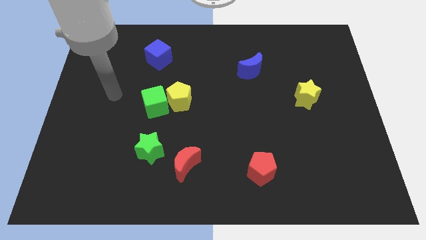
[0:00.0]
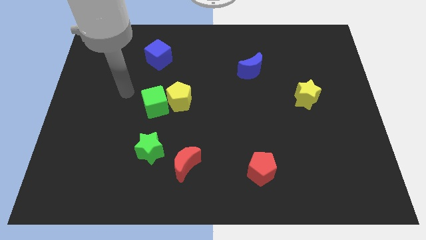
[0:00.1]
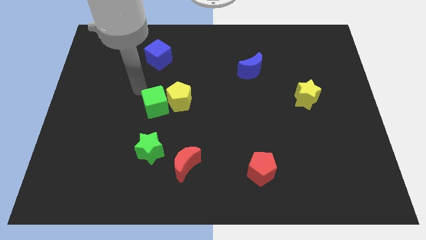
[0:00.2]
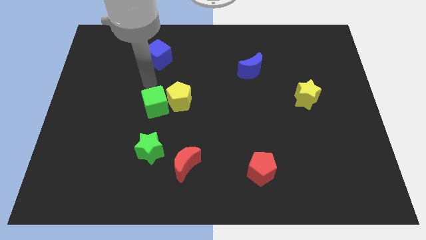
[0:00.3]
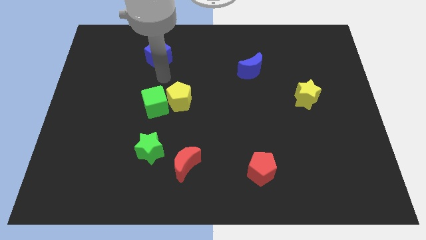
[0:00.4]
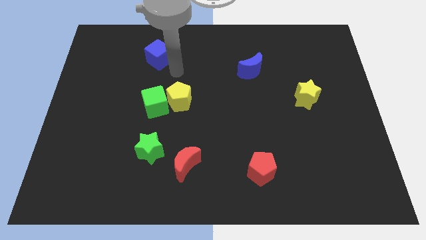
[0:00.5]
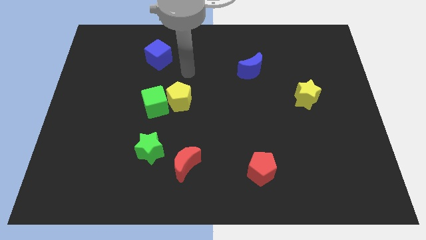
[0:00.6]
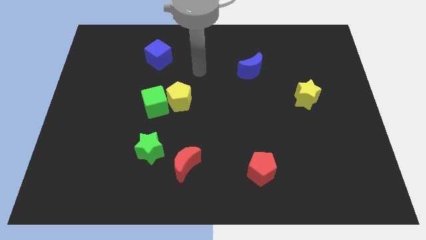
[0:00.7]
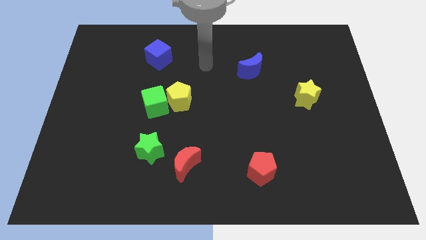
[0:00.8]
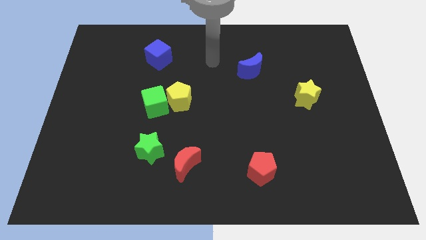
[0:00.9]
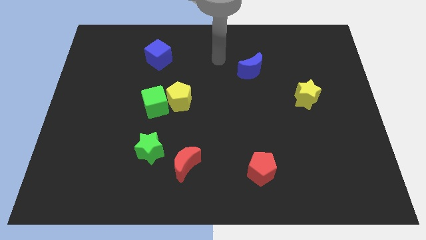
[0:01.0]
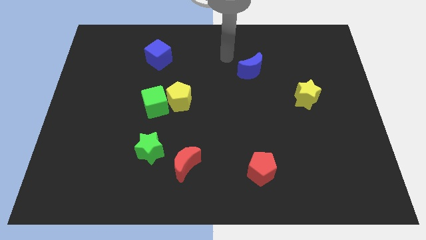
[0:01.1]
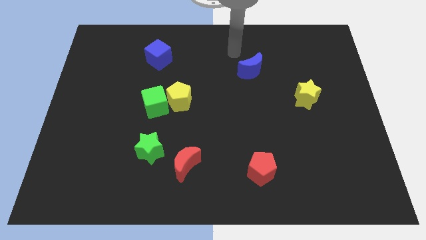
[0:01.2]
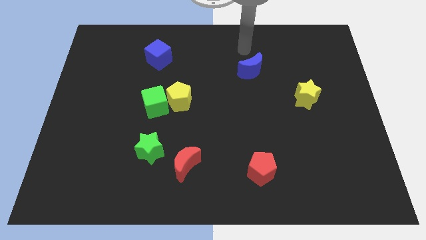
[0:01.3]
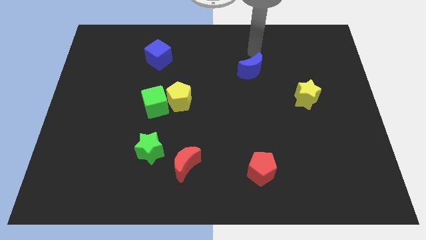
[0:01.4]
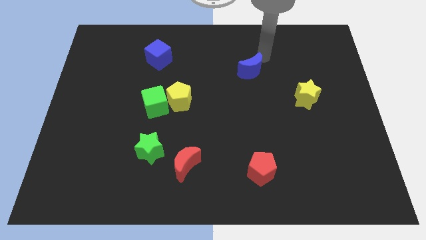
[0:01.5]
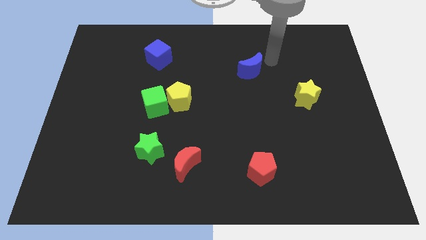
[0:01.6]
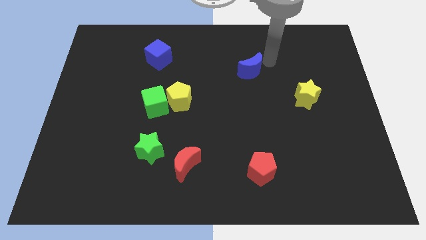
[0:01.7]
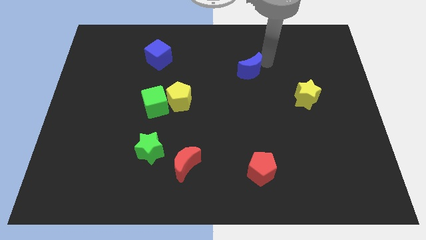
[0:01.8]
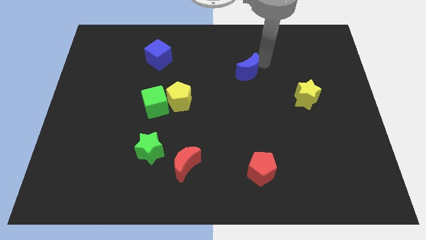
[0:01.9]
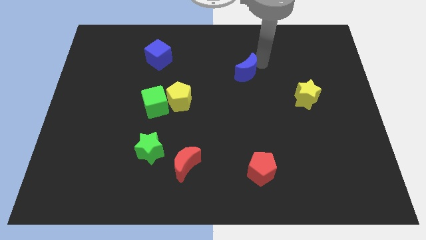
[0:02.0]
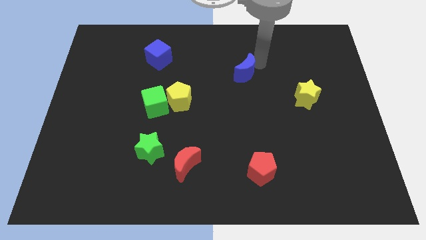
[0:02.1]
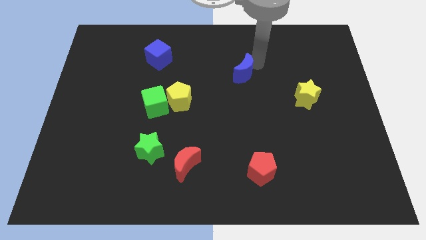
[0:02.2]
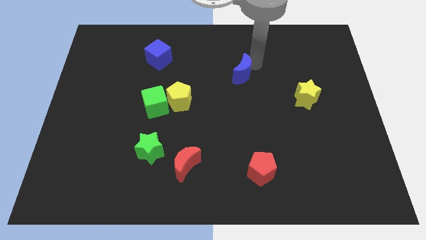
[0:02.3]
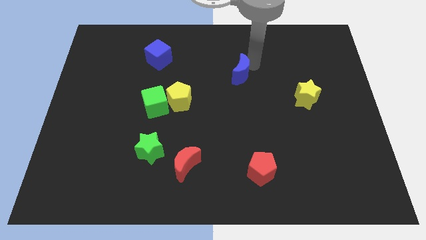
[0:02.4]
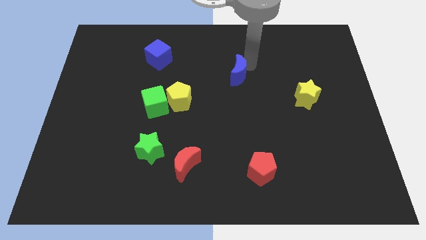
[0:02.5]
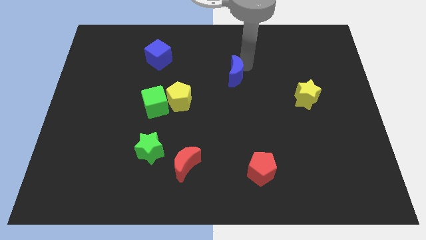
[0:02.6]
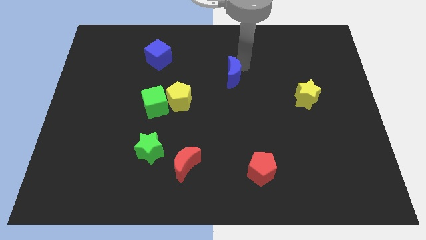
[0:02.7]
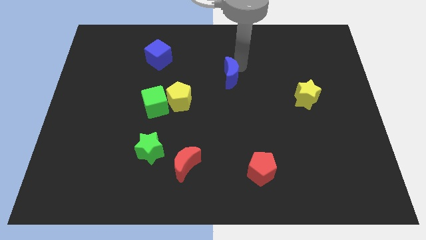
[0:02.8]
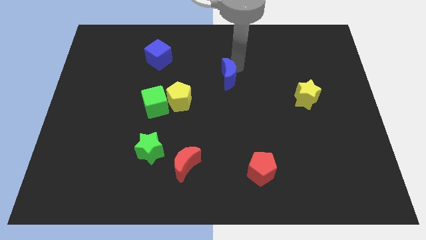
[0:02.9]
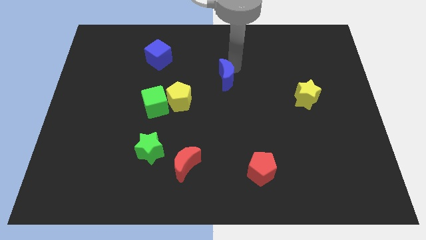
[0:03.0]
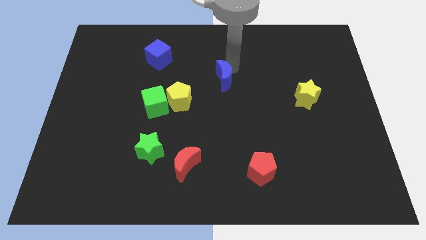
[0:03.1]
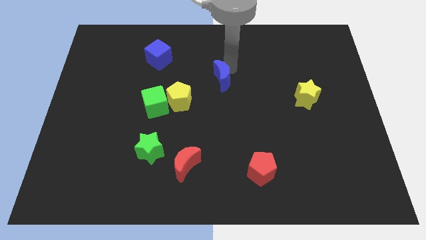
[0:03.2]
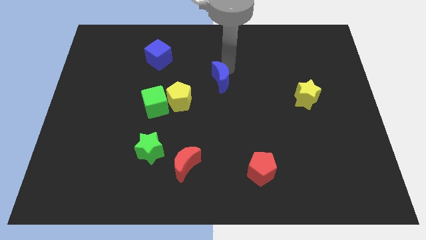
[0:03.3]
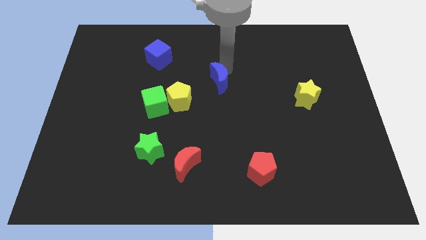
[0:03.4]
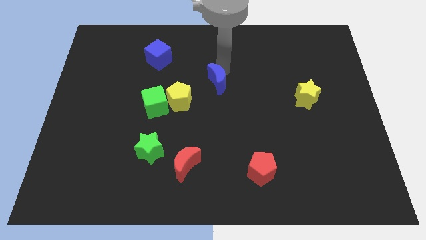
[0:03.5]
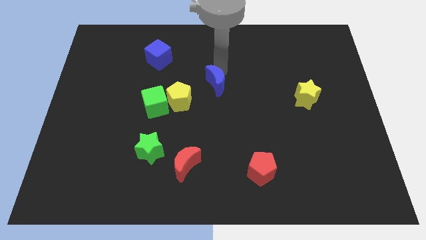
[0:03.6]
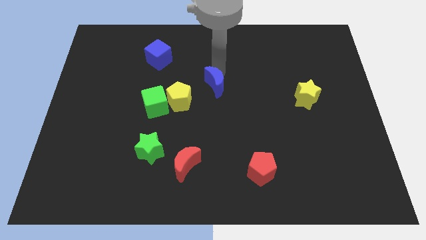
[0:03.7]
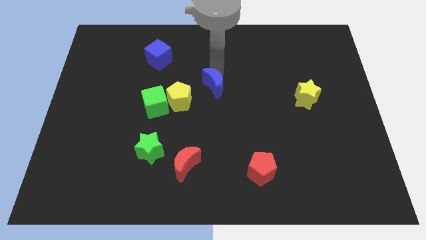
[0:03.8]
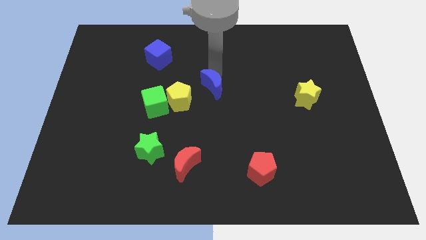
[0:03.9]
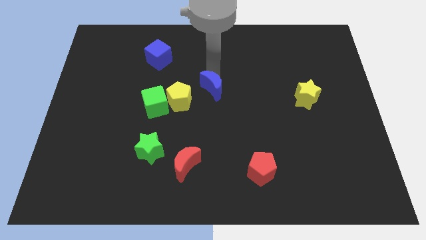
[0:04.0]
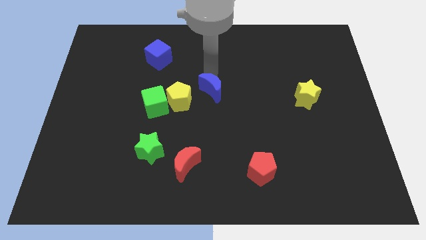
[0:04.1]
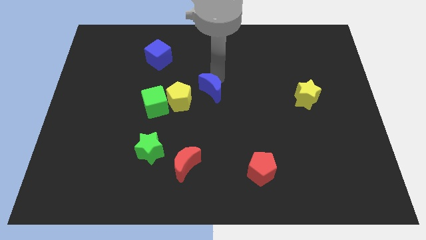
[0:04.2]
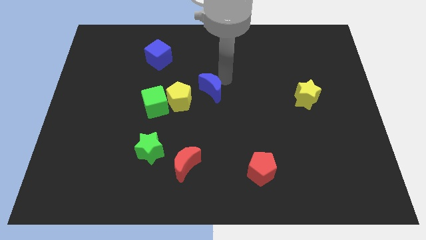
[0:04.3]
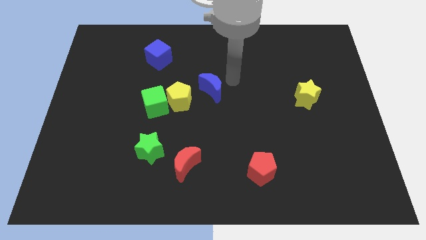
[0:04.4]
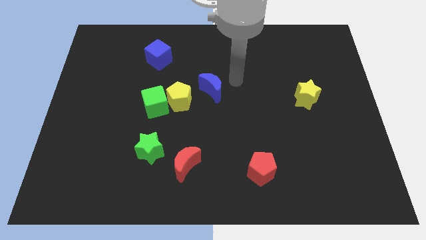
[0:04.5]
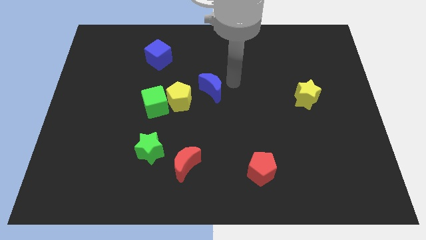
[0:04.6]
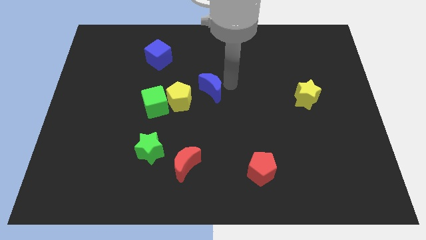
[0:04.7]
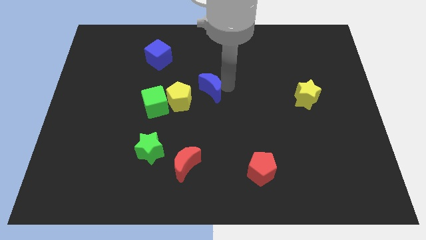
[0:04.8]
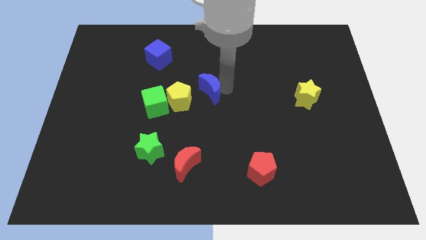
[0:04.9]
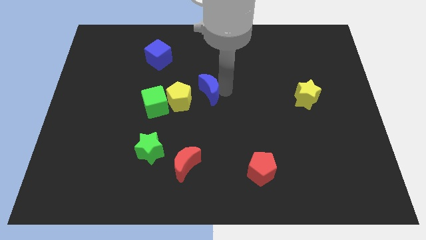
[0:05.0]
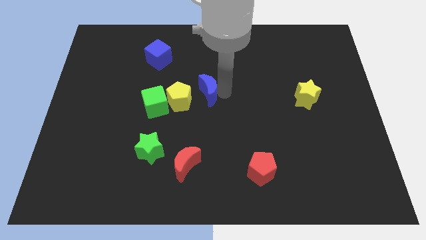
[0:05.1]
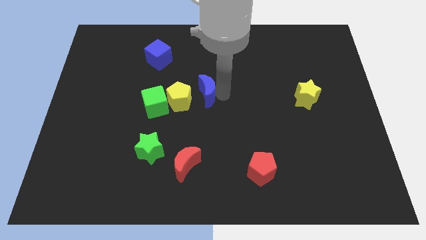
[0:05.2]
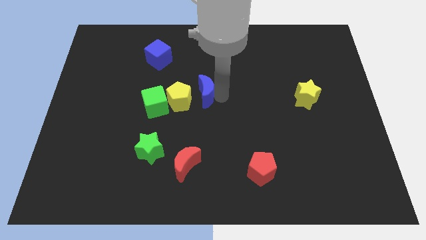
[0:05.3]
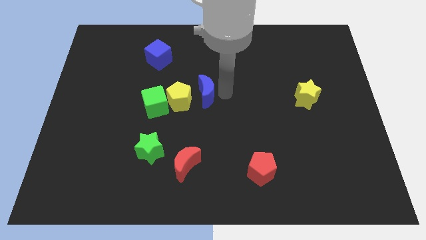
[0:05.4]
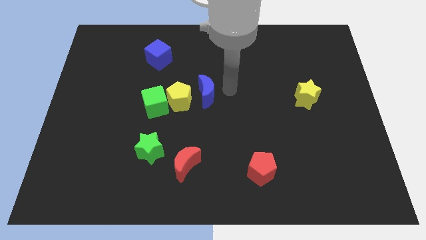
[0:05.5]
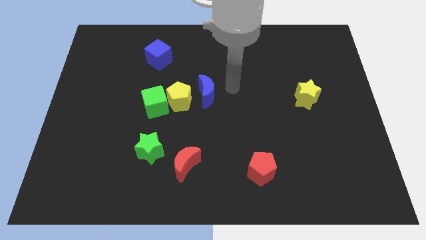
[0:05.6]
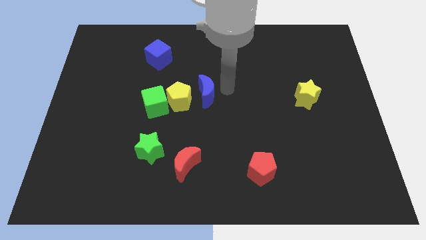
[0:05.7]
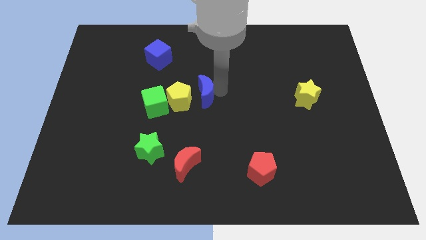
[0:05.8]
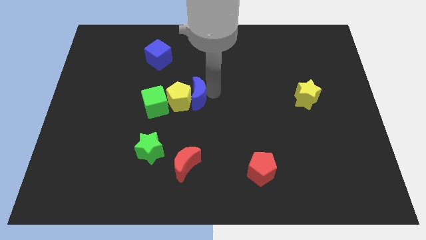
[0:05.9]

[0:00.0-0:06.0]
slide the blue moon towards the yellow pentagon

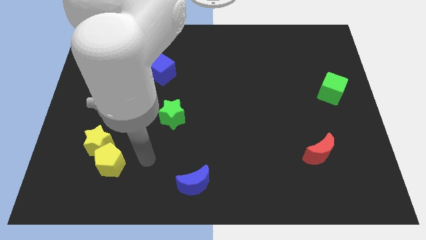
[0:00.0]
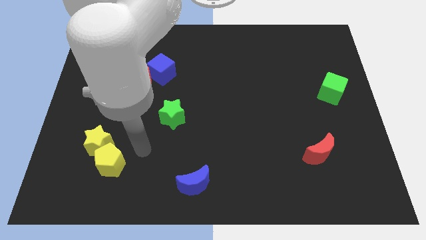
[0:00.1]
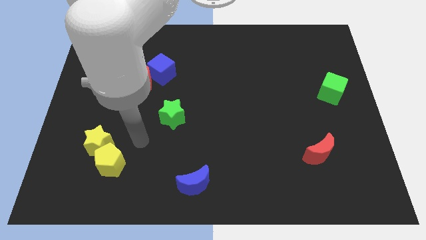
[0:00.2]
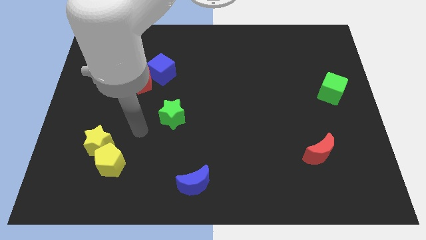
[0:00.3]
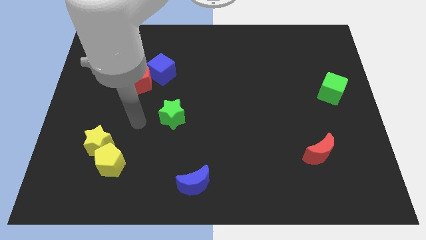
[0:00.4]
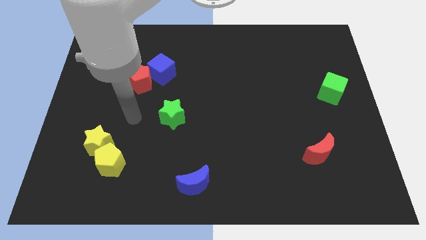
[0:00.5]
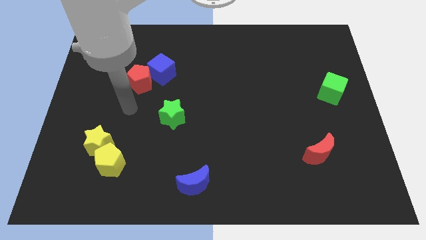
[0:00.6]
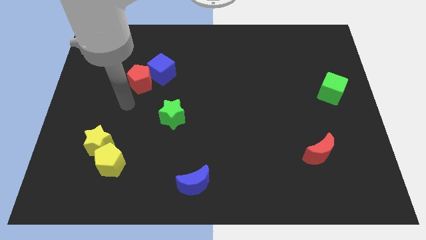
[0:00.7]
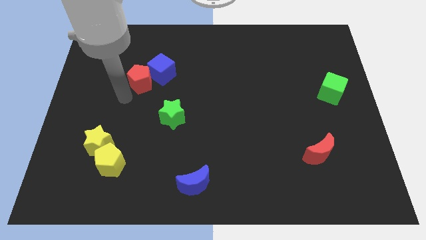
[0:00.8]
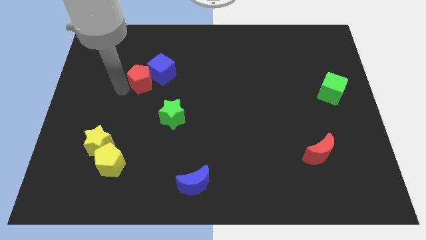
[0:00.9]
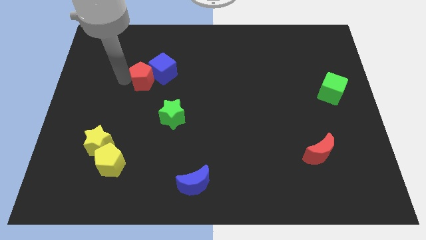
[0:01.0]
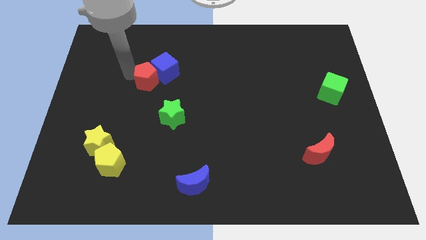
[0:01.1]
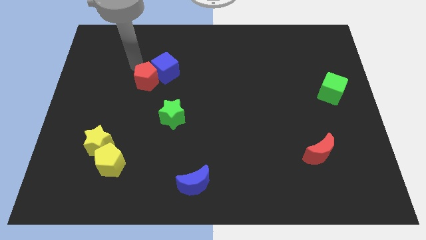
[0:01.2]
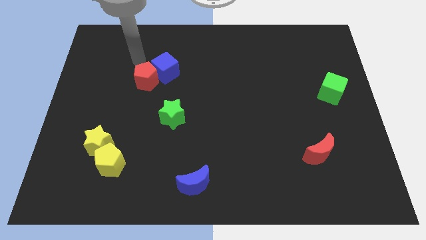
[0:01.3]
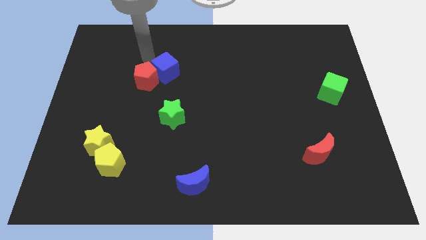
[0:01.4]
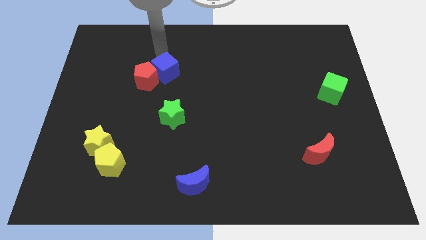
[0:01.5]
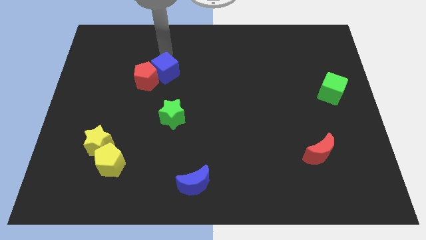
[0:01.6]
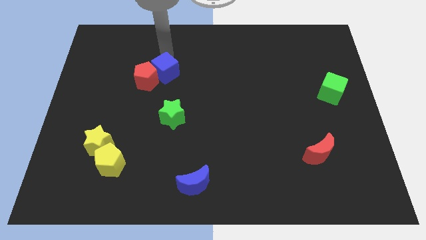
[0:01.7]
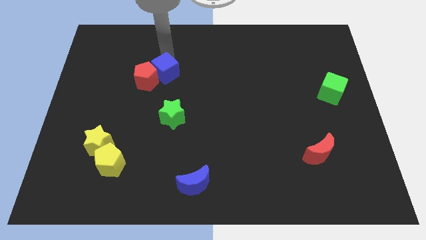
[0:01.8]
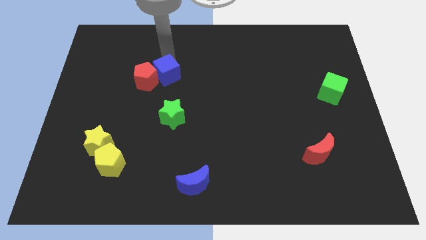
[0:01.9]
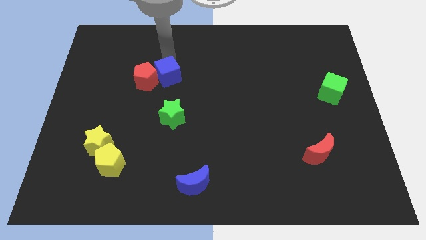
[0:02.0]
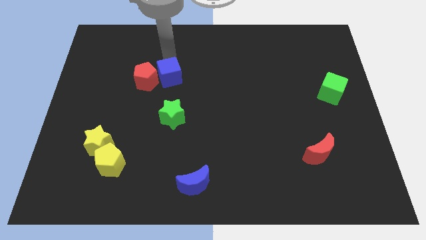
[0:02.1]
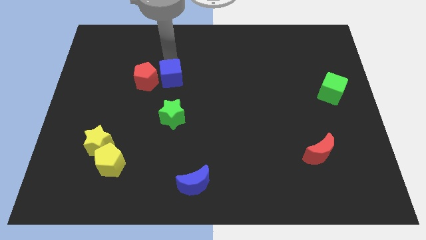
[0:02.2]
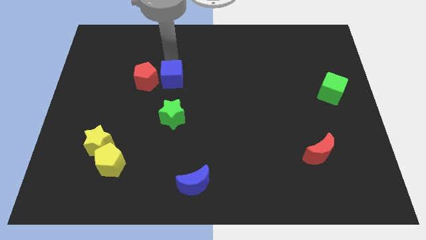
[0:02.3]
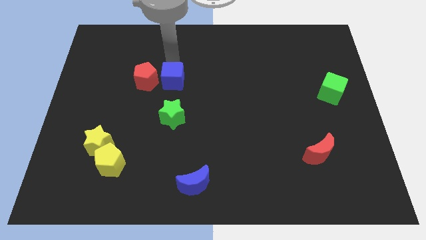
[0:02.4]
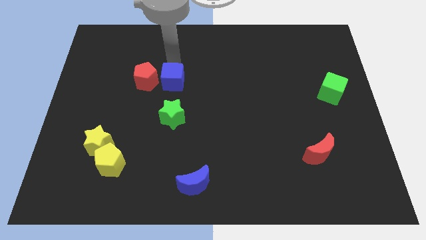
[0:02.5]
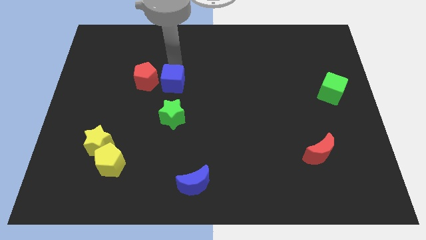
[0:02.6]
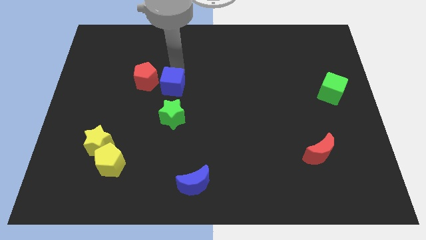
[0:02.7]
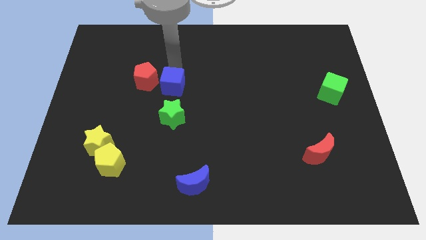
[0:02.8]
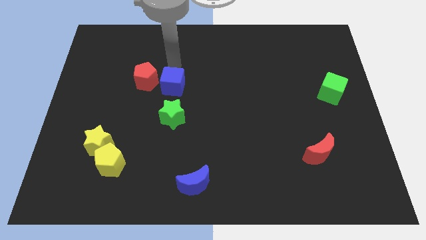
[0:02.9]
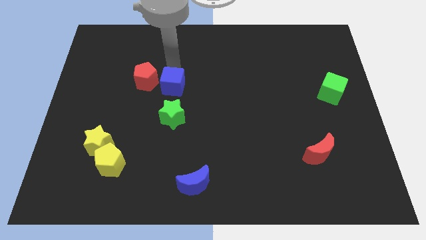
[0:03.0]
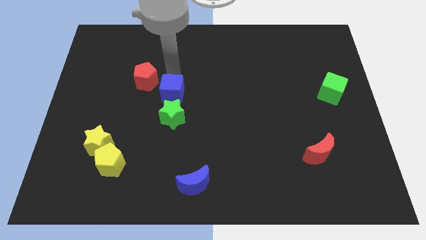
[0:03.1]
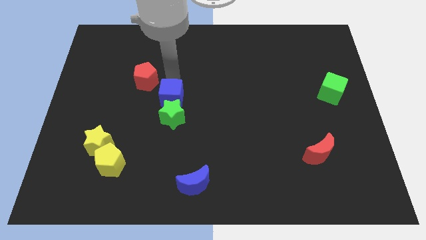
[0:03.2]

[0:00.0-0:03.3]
push the blue cube towards the green star
